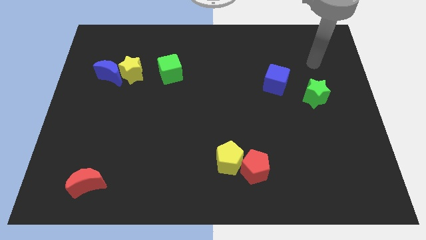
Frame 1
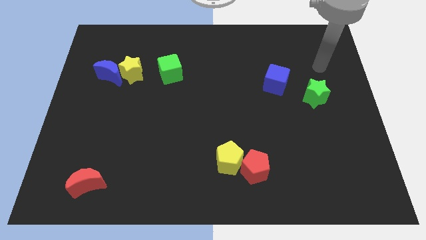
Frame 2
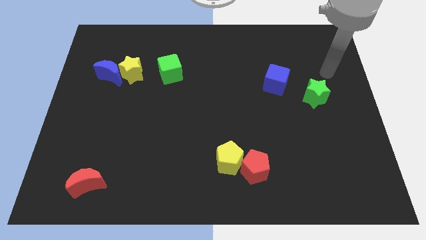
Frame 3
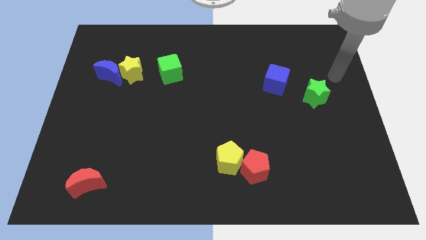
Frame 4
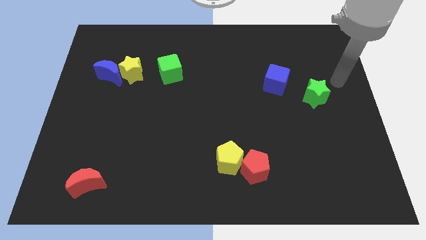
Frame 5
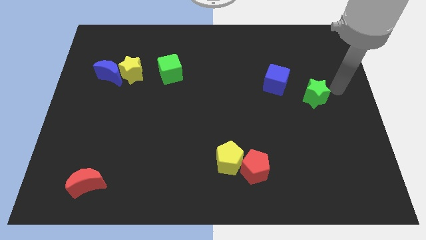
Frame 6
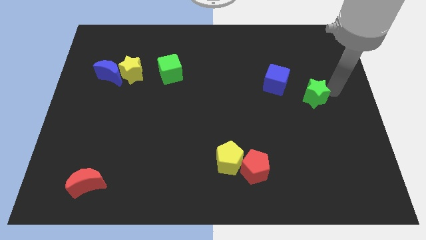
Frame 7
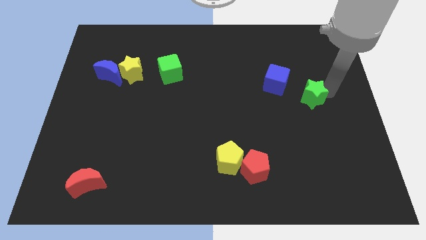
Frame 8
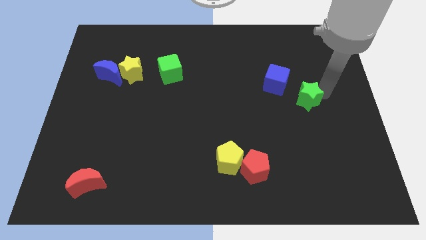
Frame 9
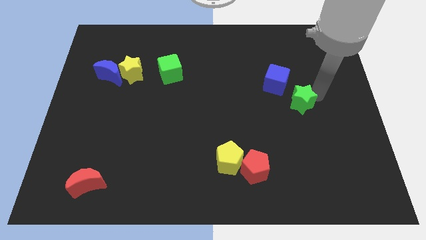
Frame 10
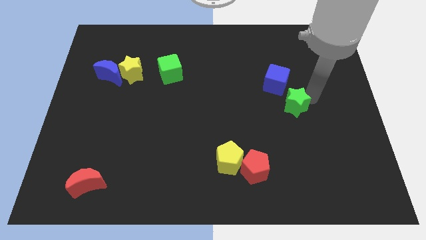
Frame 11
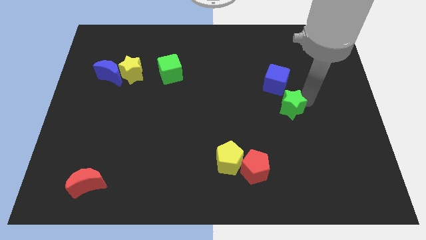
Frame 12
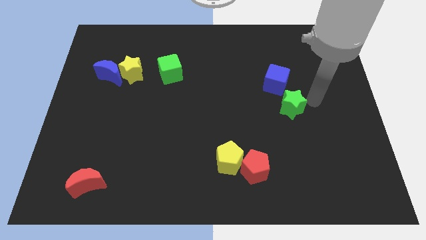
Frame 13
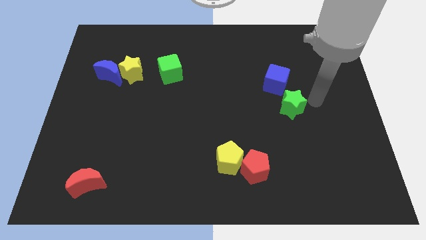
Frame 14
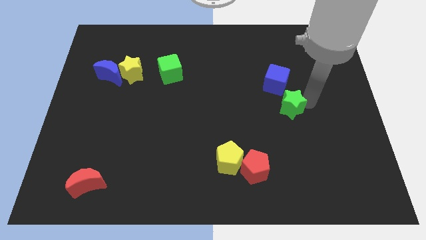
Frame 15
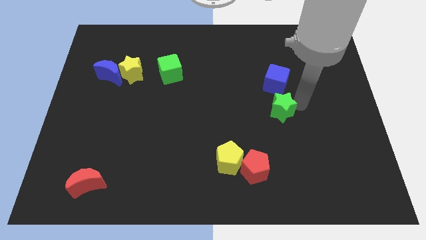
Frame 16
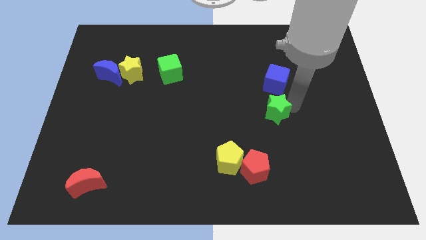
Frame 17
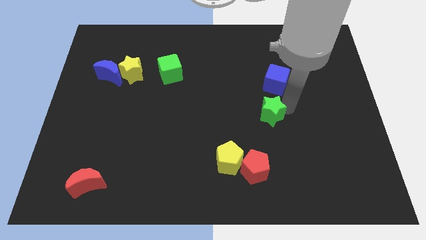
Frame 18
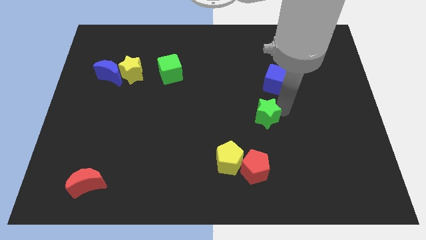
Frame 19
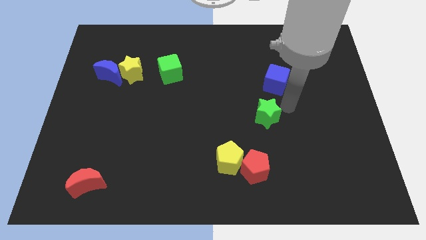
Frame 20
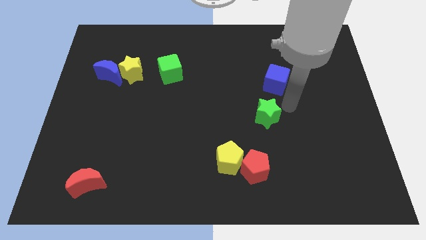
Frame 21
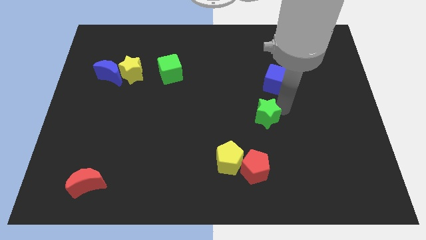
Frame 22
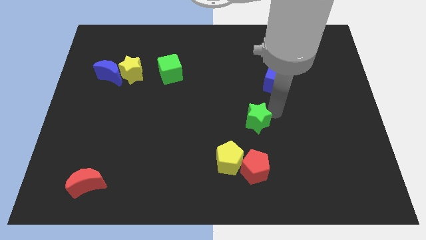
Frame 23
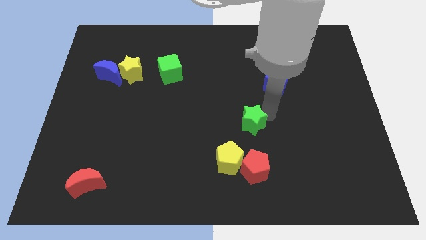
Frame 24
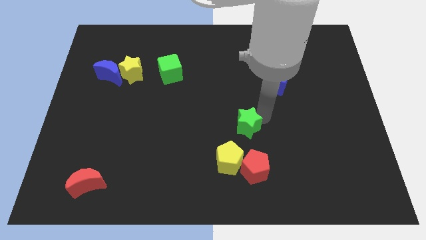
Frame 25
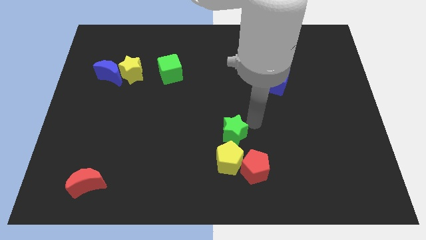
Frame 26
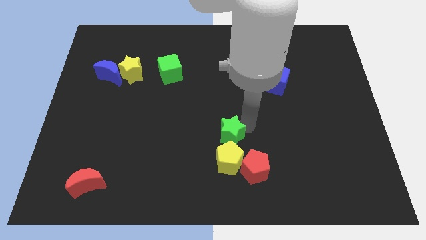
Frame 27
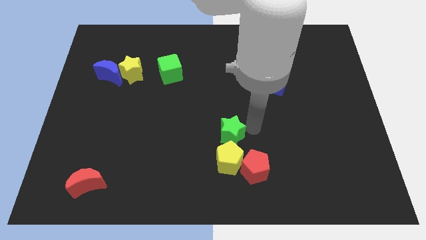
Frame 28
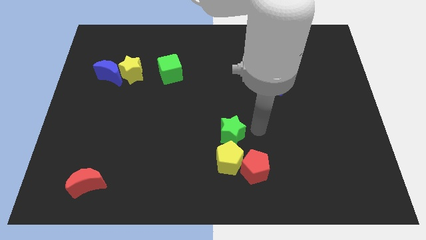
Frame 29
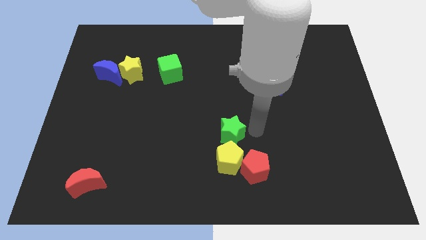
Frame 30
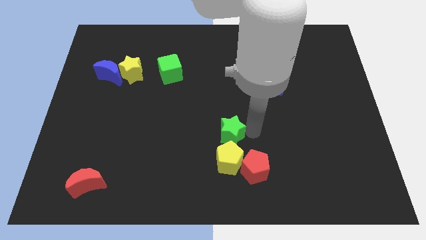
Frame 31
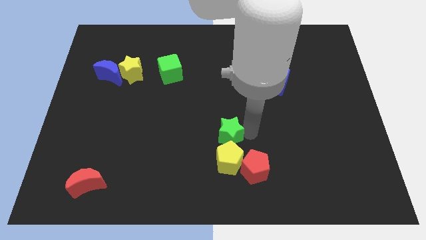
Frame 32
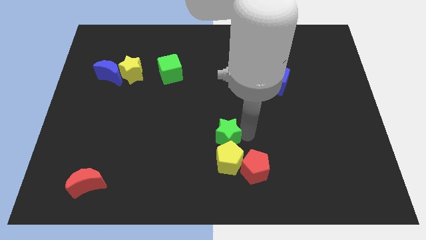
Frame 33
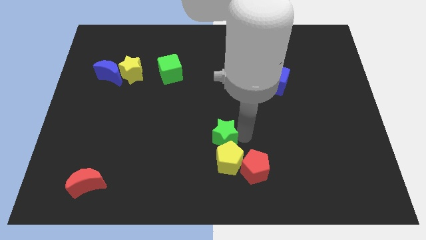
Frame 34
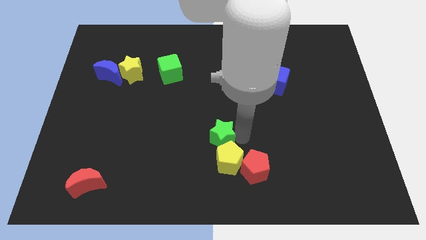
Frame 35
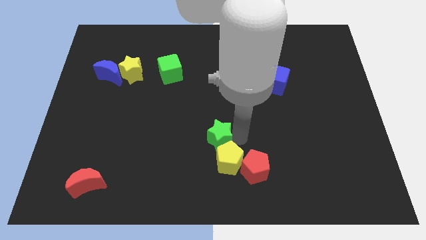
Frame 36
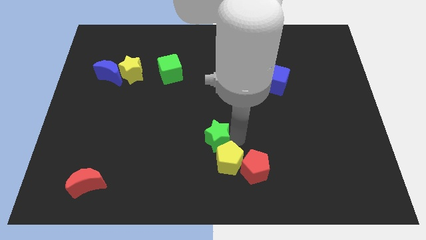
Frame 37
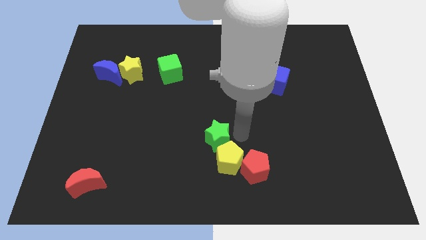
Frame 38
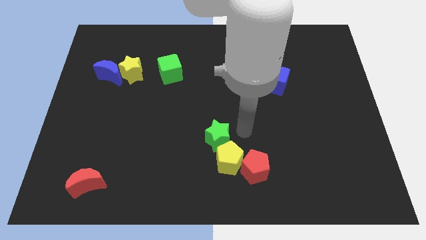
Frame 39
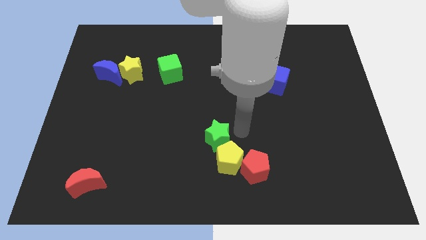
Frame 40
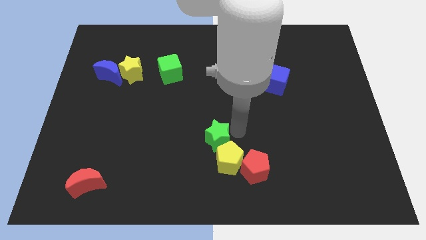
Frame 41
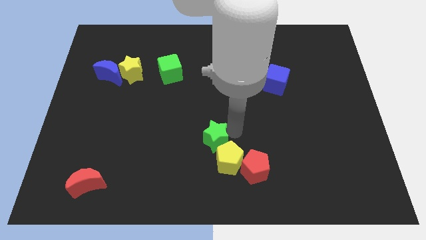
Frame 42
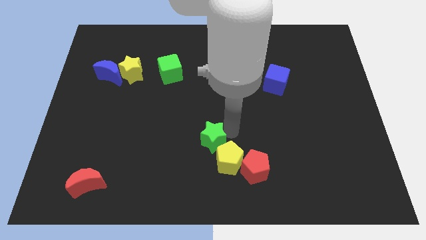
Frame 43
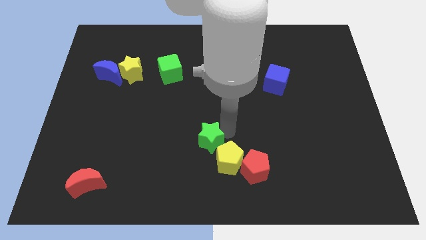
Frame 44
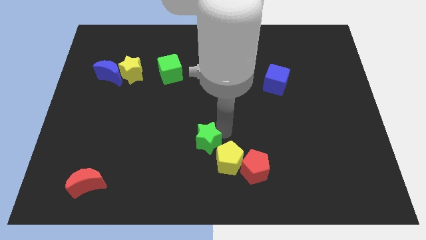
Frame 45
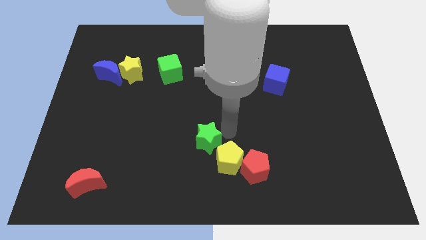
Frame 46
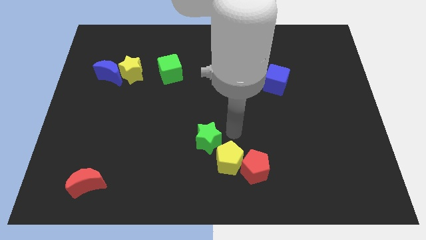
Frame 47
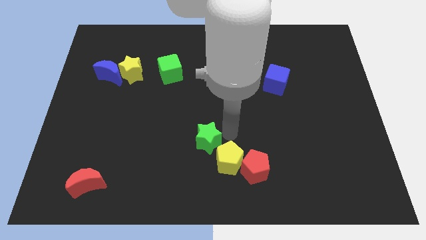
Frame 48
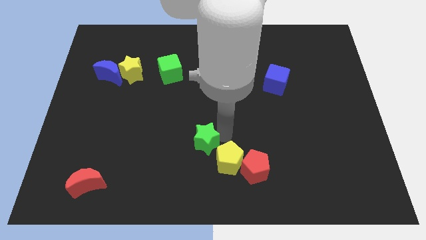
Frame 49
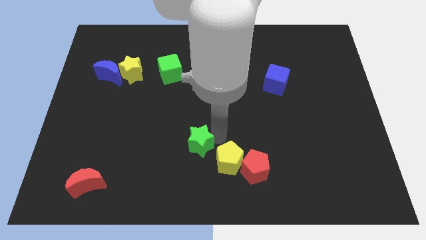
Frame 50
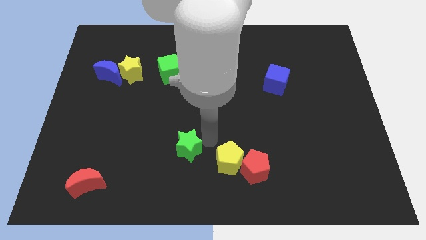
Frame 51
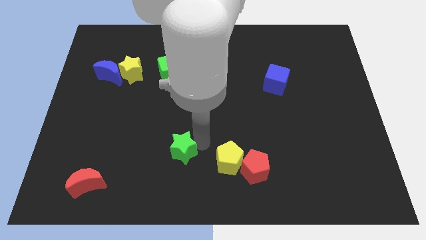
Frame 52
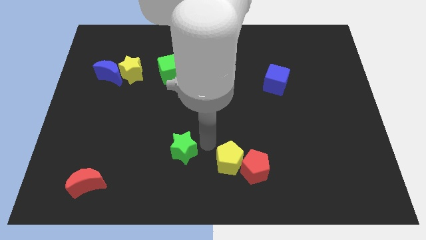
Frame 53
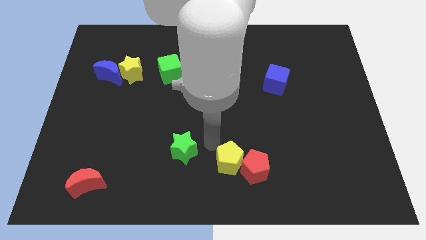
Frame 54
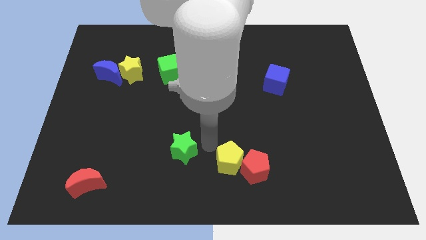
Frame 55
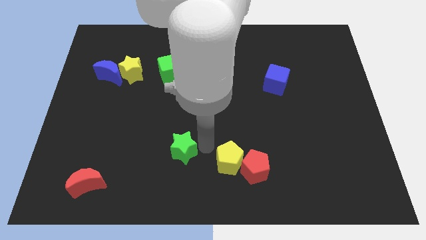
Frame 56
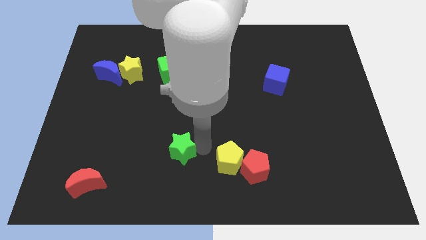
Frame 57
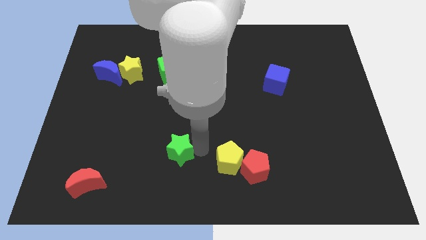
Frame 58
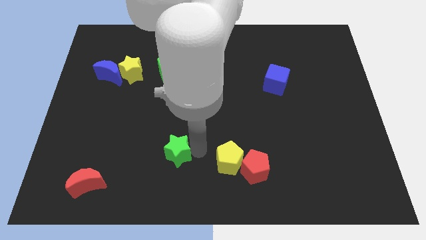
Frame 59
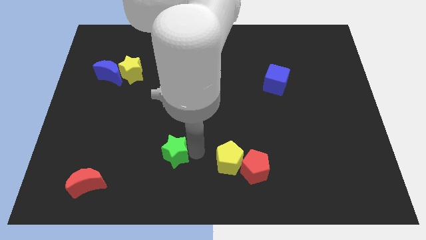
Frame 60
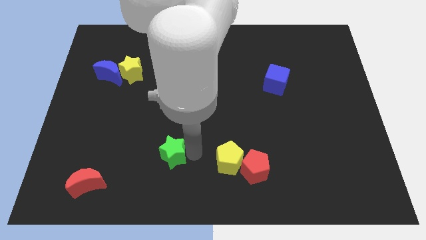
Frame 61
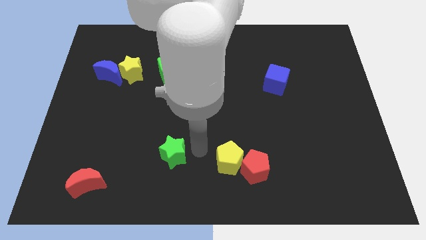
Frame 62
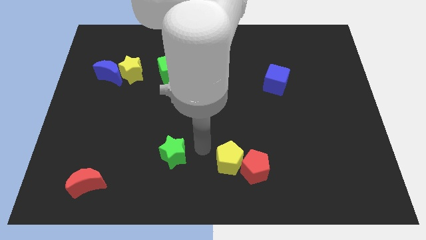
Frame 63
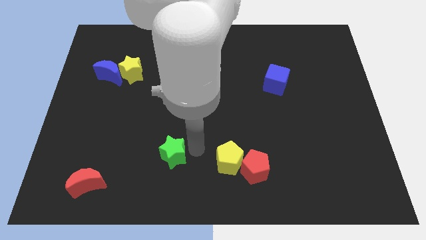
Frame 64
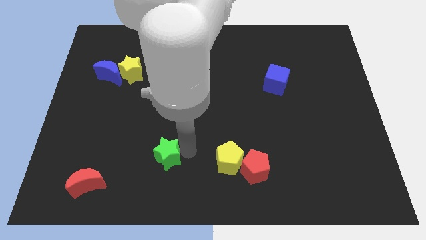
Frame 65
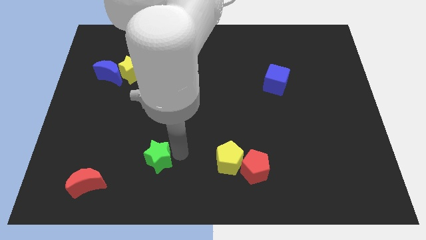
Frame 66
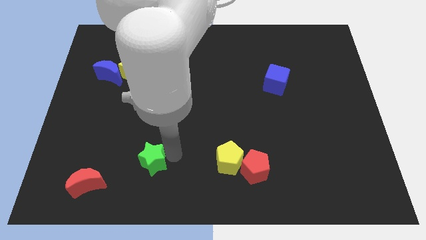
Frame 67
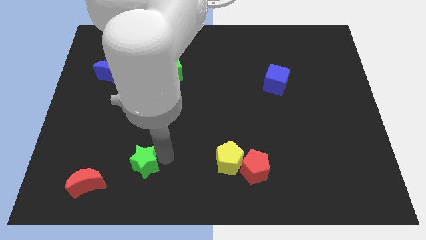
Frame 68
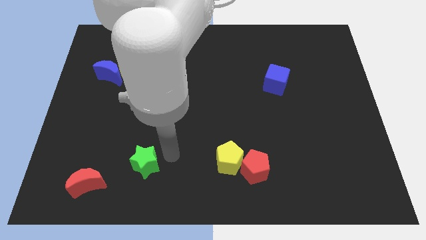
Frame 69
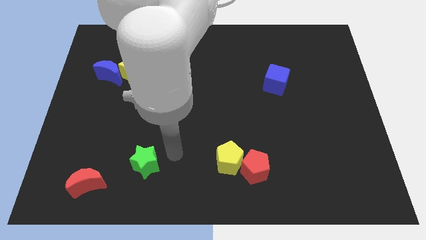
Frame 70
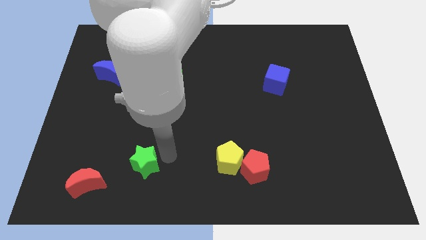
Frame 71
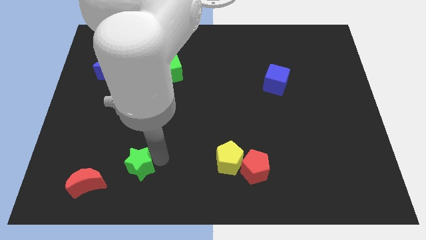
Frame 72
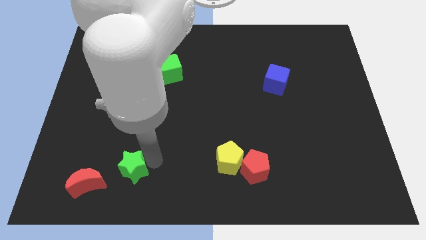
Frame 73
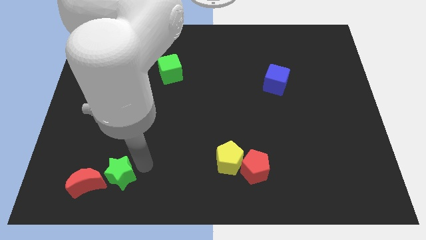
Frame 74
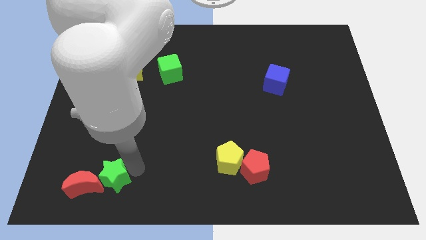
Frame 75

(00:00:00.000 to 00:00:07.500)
put the green star to the red moon
